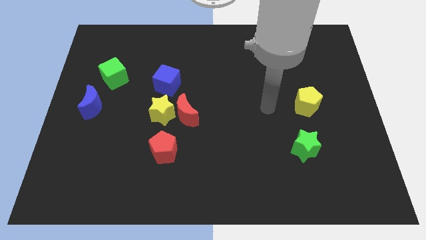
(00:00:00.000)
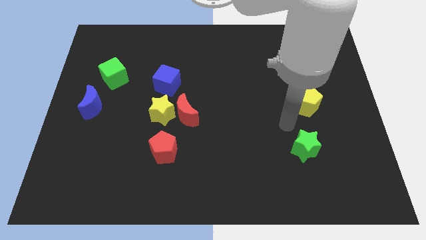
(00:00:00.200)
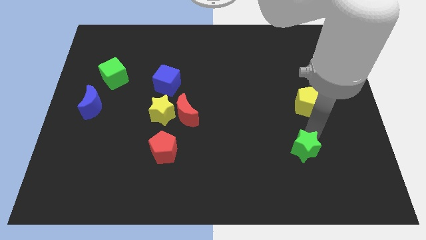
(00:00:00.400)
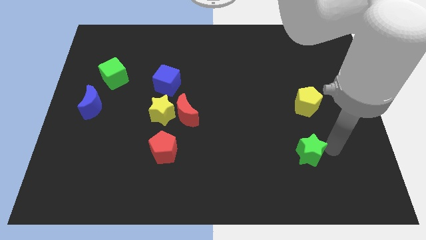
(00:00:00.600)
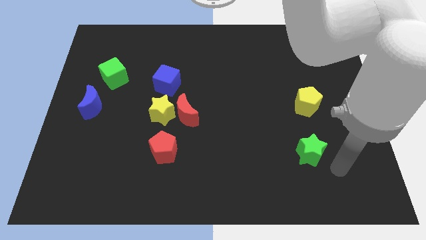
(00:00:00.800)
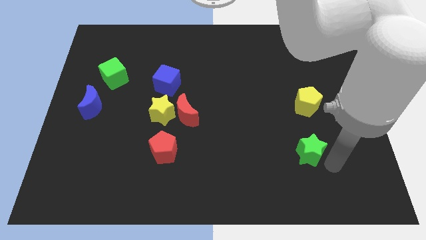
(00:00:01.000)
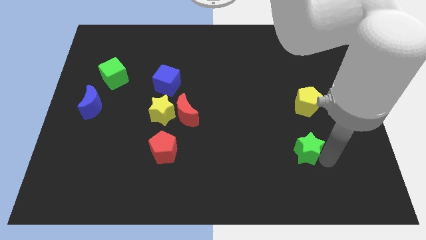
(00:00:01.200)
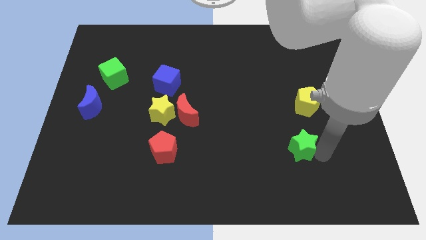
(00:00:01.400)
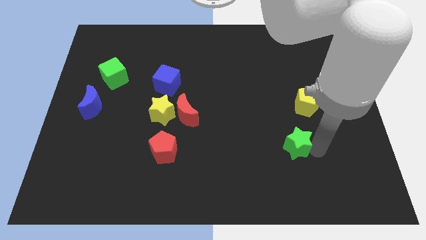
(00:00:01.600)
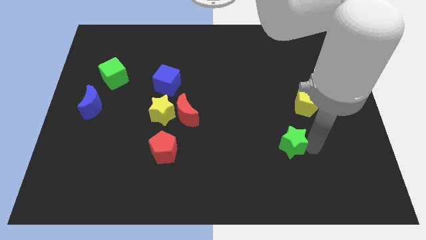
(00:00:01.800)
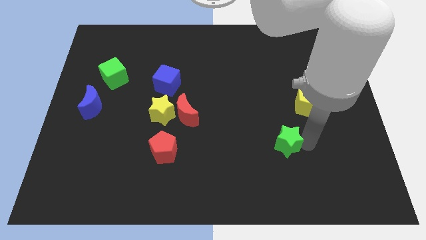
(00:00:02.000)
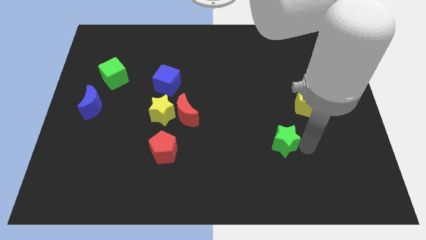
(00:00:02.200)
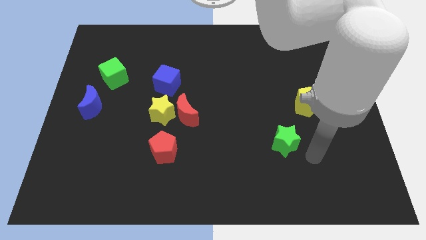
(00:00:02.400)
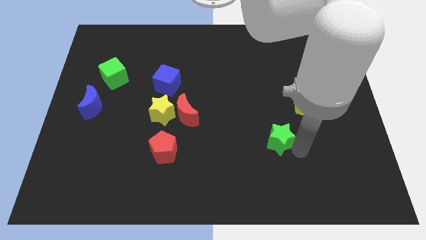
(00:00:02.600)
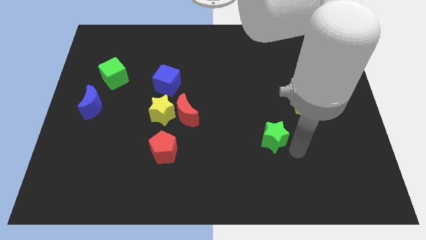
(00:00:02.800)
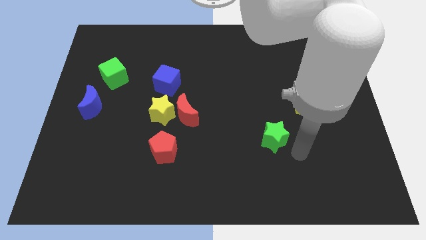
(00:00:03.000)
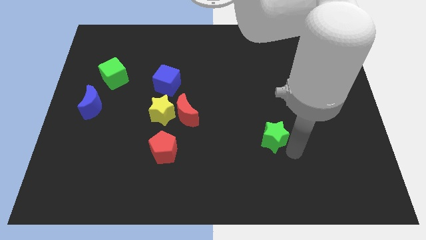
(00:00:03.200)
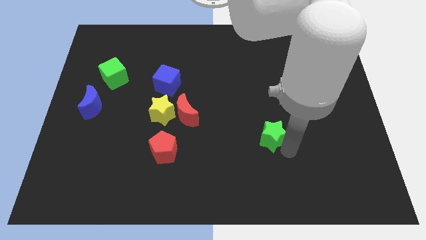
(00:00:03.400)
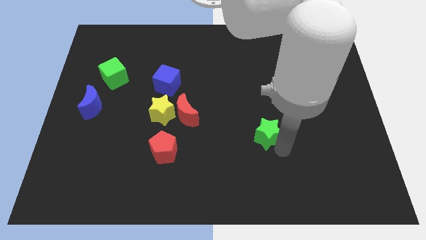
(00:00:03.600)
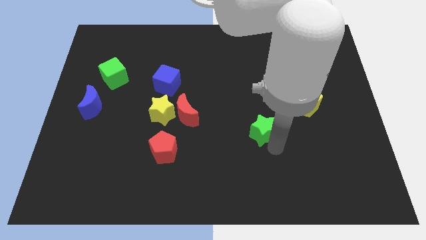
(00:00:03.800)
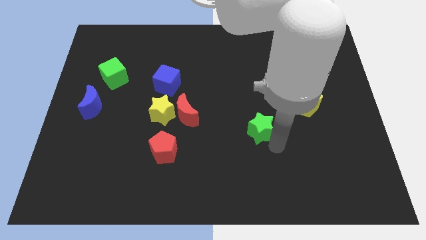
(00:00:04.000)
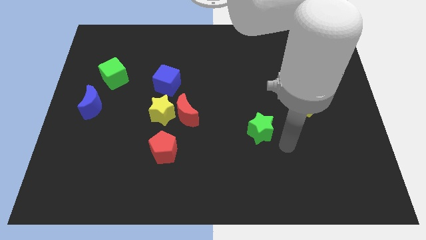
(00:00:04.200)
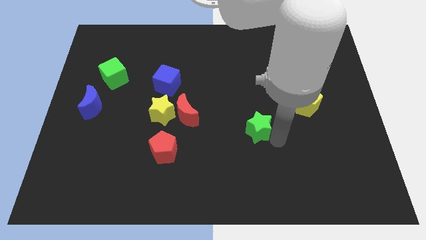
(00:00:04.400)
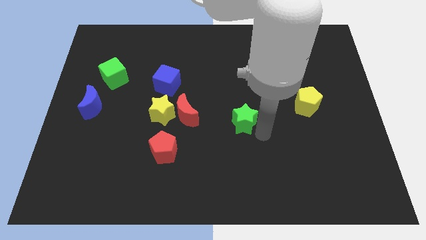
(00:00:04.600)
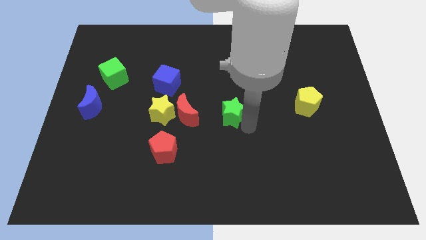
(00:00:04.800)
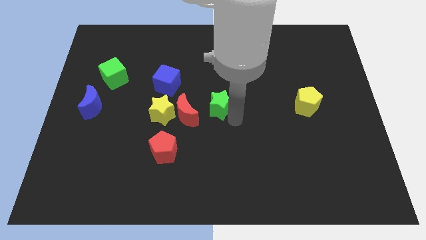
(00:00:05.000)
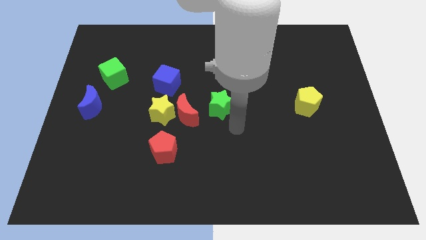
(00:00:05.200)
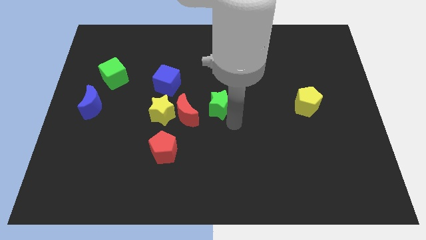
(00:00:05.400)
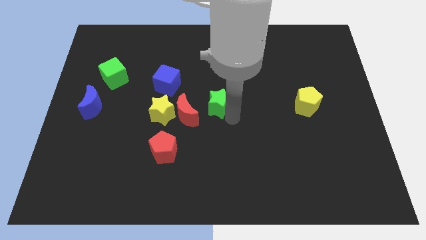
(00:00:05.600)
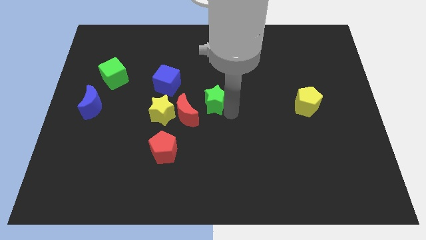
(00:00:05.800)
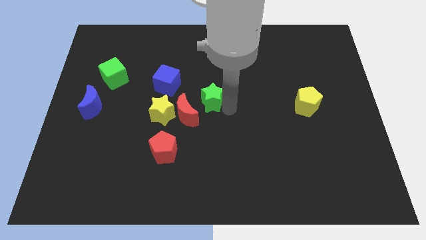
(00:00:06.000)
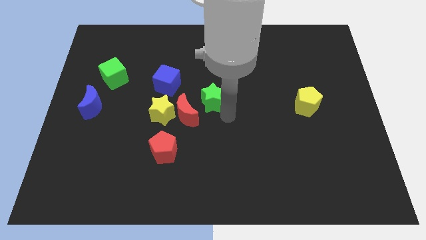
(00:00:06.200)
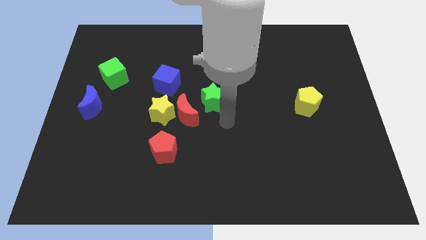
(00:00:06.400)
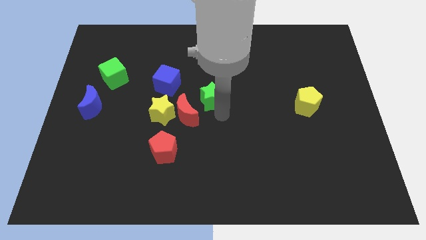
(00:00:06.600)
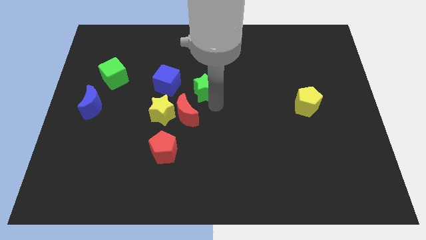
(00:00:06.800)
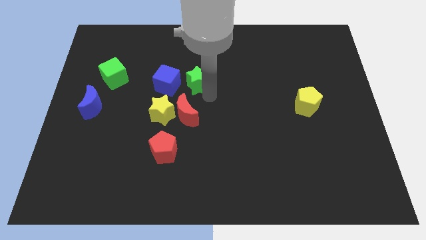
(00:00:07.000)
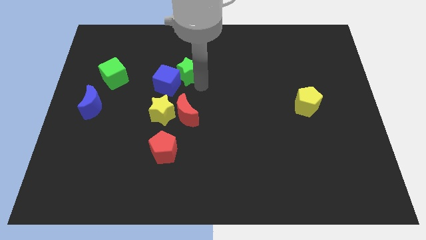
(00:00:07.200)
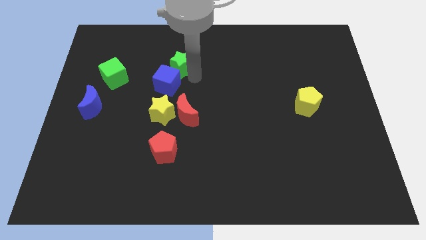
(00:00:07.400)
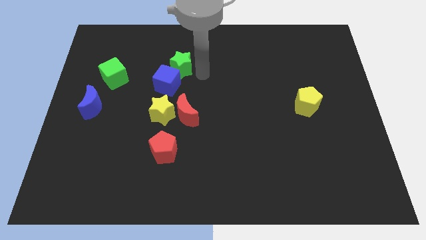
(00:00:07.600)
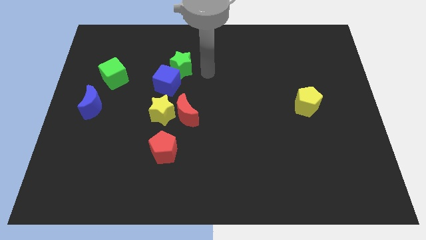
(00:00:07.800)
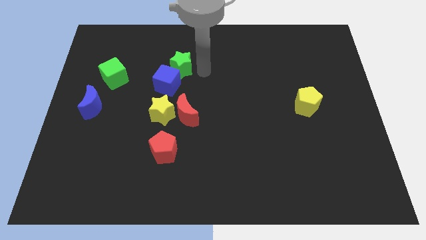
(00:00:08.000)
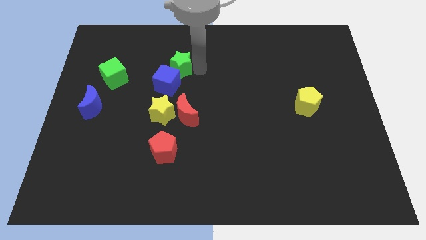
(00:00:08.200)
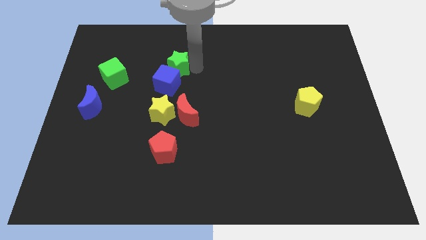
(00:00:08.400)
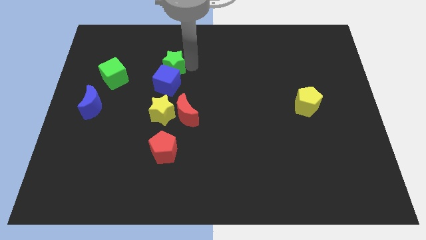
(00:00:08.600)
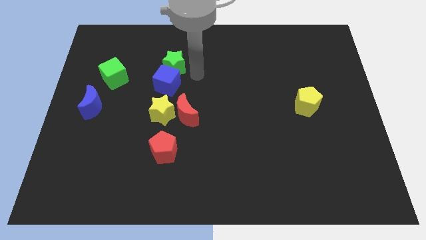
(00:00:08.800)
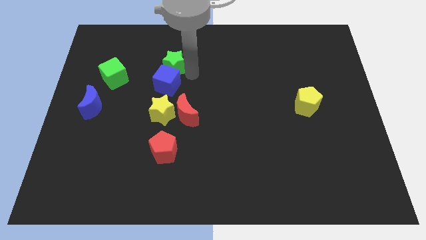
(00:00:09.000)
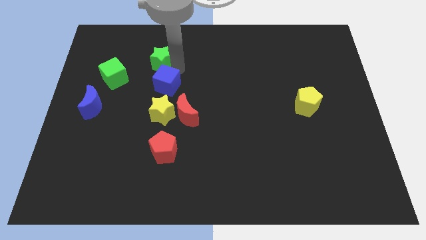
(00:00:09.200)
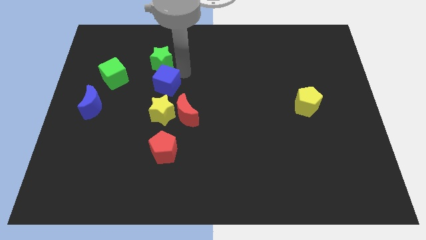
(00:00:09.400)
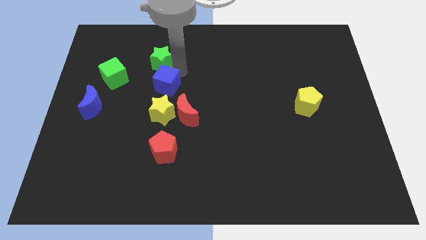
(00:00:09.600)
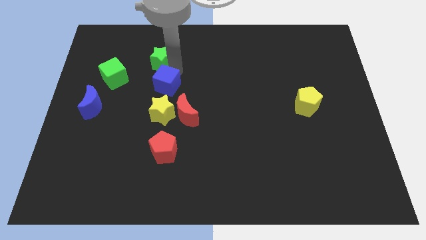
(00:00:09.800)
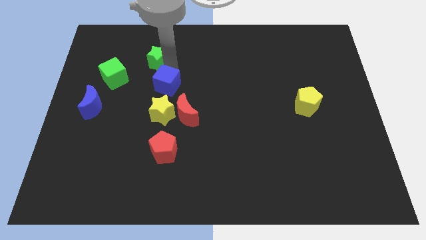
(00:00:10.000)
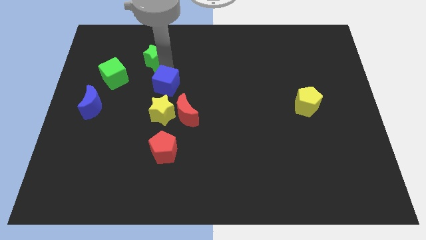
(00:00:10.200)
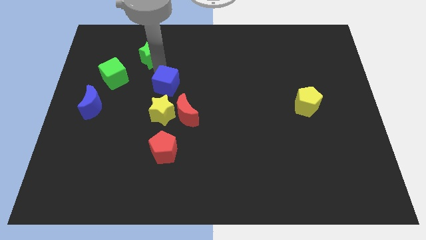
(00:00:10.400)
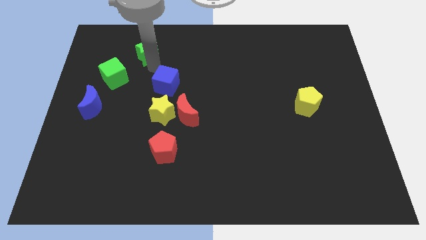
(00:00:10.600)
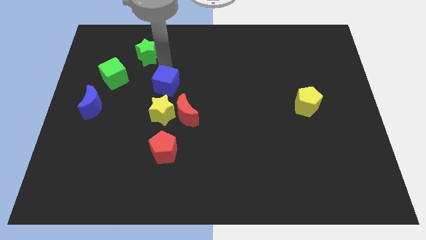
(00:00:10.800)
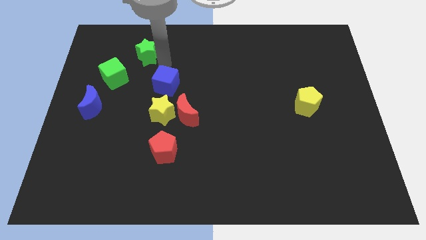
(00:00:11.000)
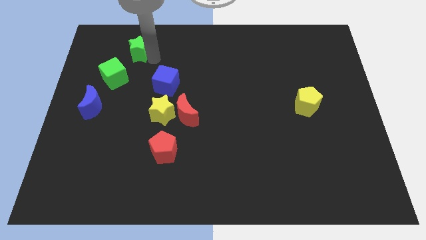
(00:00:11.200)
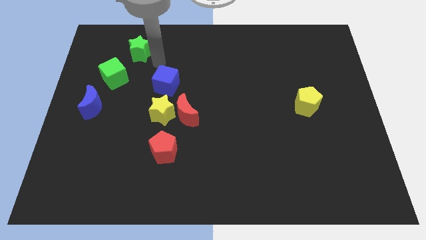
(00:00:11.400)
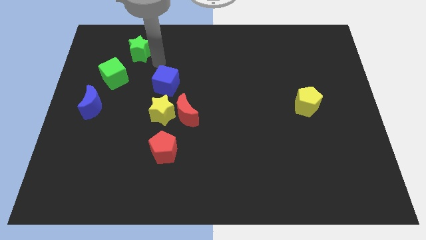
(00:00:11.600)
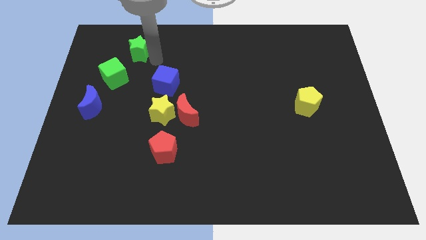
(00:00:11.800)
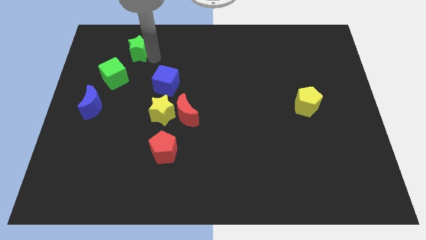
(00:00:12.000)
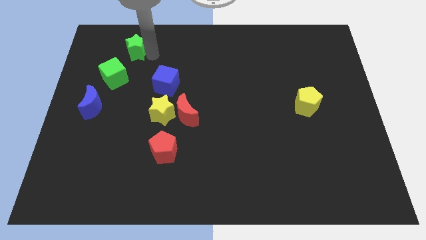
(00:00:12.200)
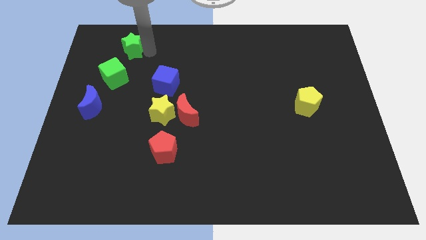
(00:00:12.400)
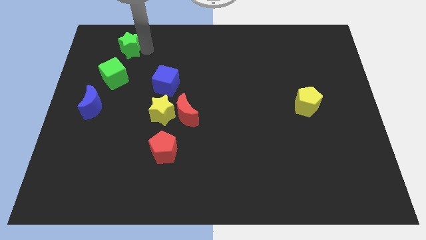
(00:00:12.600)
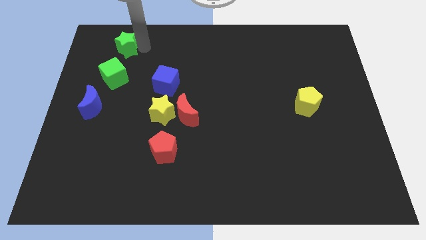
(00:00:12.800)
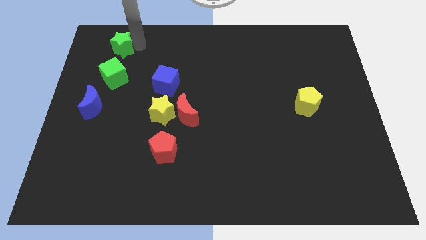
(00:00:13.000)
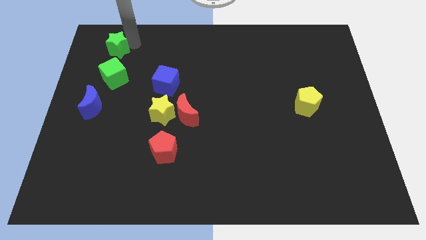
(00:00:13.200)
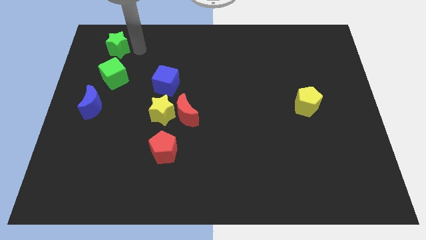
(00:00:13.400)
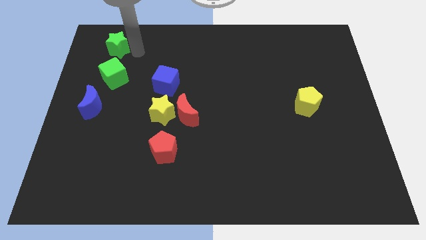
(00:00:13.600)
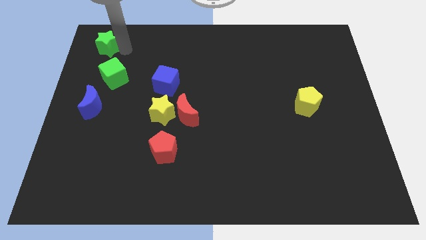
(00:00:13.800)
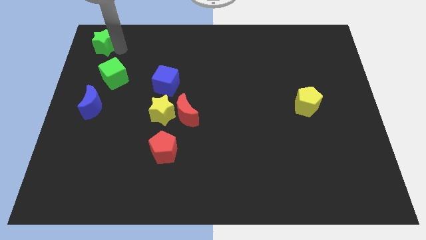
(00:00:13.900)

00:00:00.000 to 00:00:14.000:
move the green star to the upper left corner
